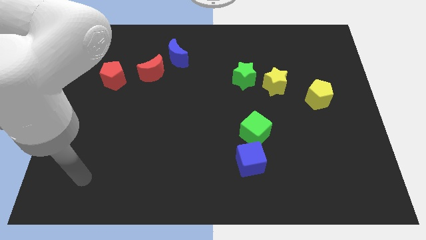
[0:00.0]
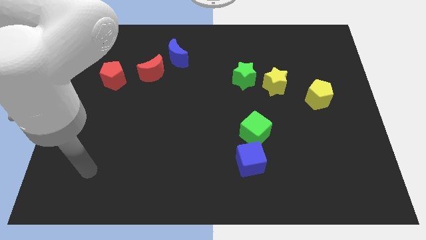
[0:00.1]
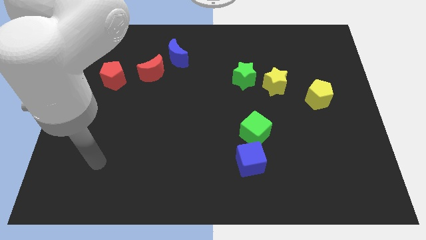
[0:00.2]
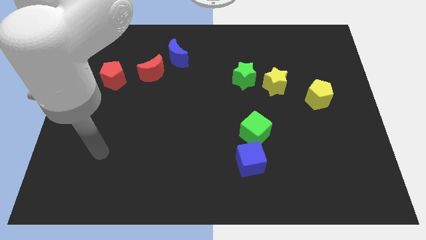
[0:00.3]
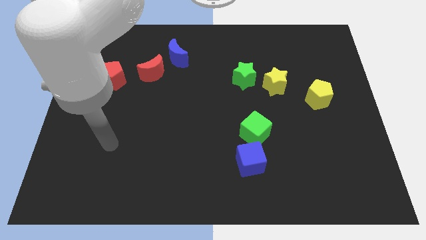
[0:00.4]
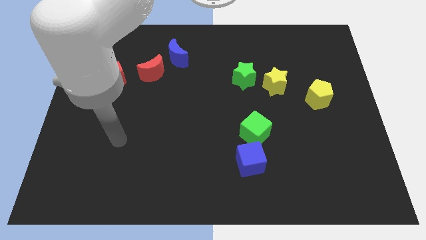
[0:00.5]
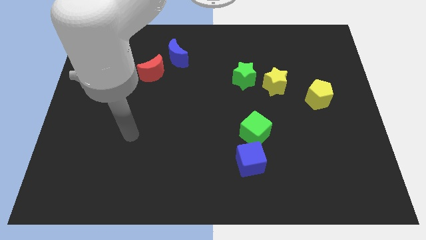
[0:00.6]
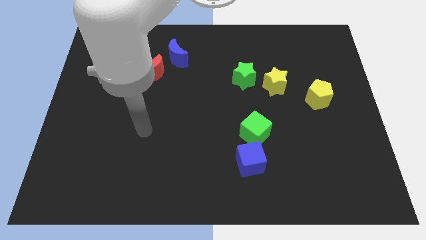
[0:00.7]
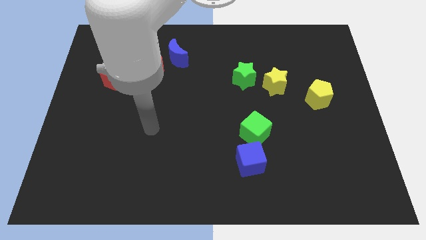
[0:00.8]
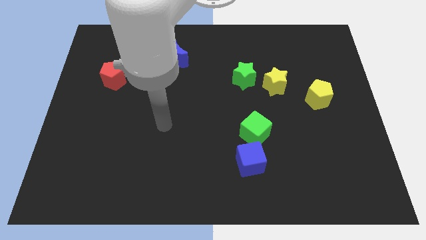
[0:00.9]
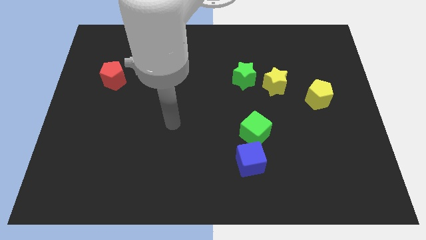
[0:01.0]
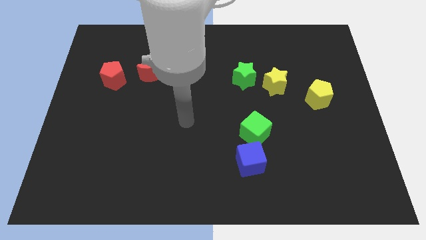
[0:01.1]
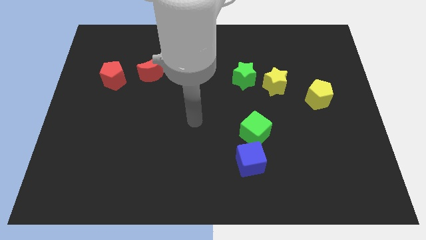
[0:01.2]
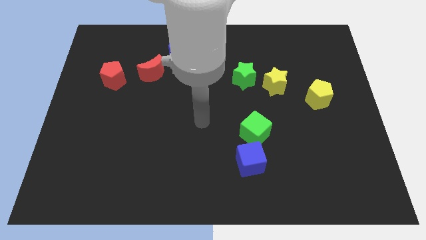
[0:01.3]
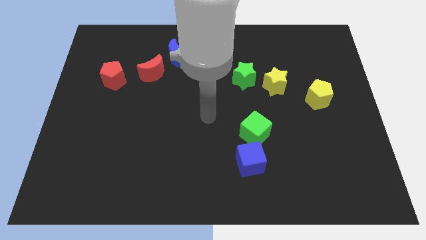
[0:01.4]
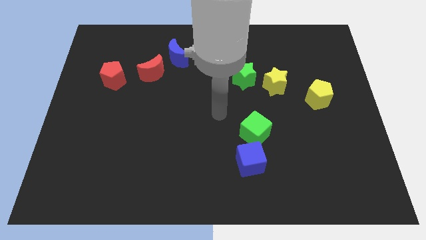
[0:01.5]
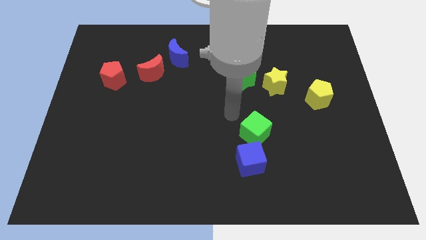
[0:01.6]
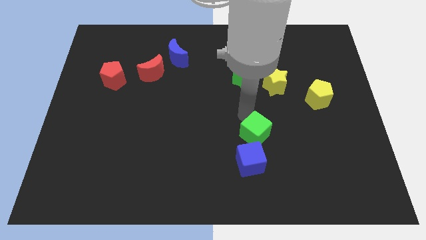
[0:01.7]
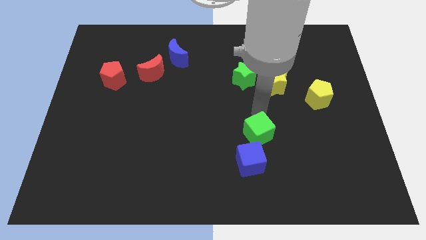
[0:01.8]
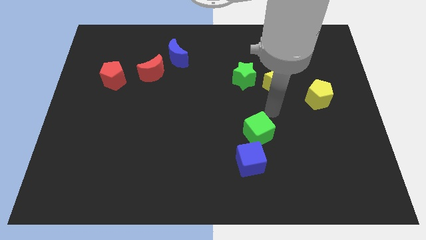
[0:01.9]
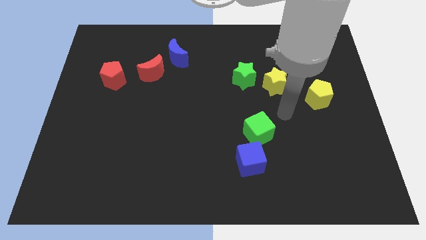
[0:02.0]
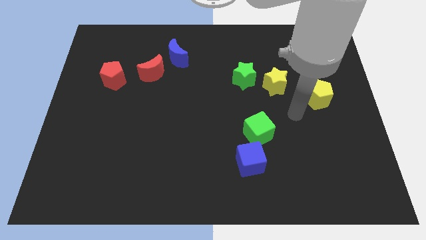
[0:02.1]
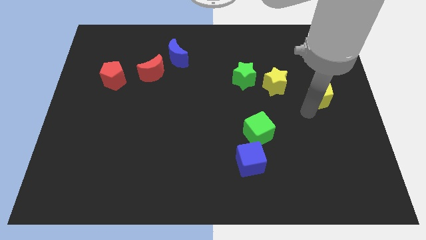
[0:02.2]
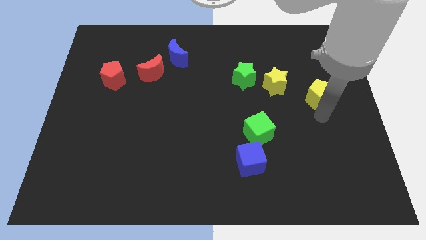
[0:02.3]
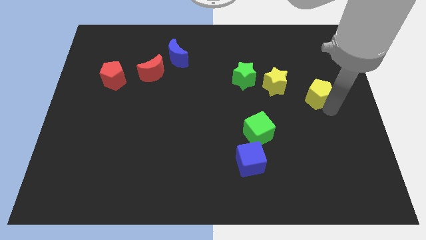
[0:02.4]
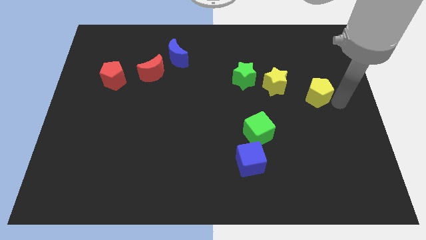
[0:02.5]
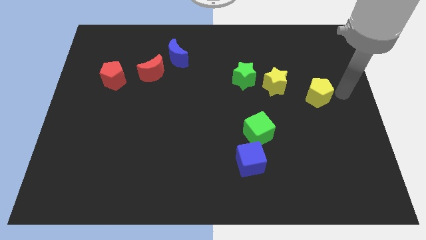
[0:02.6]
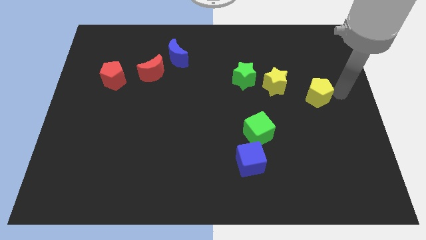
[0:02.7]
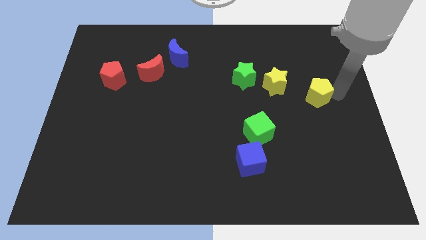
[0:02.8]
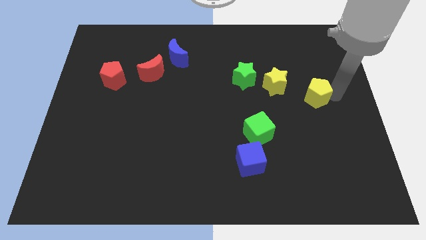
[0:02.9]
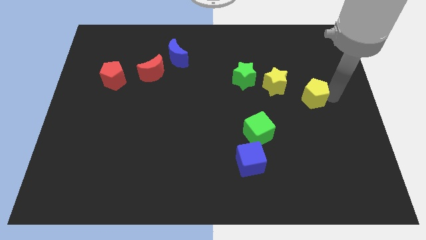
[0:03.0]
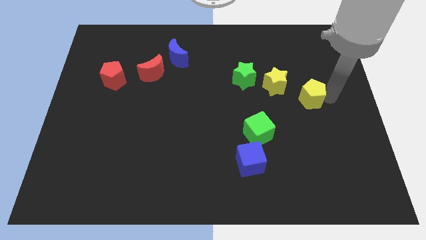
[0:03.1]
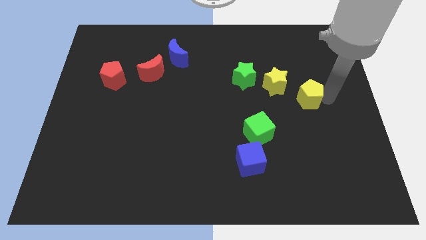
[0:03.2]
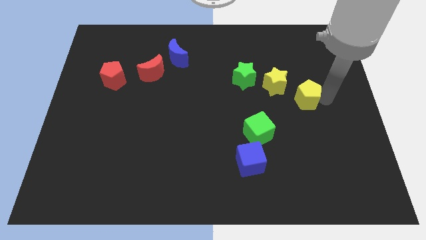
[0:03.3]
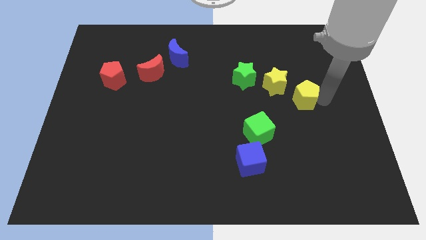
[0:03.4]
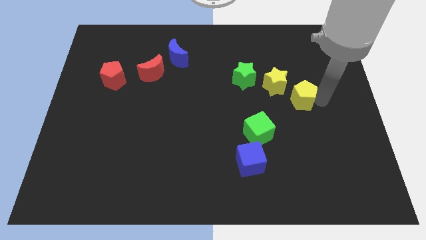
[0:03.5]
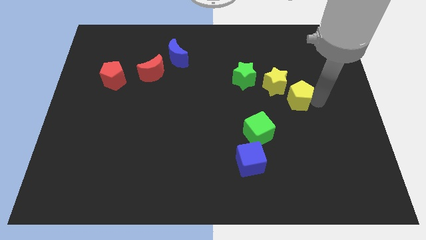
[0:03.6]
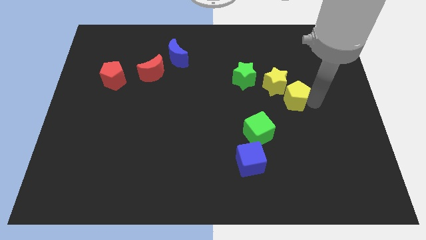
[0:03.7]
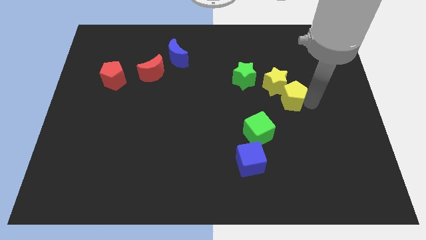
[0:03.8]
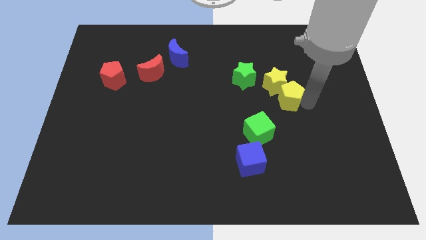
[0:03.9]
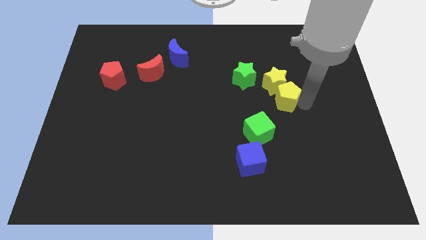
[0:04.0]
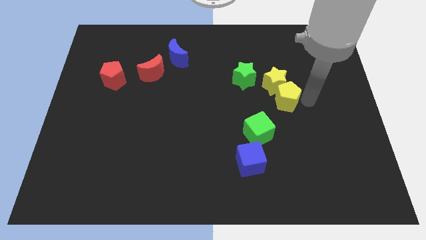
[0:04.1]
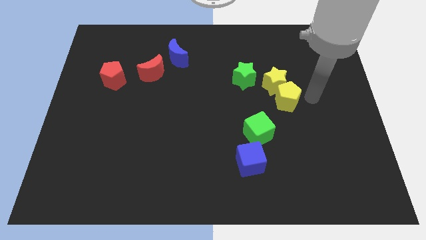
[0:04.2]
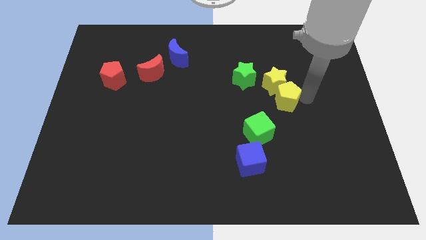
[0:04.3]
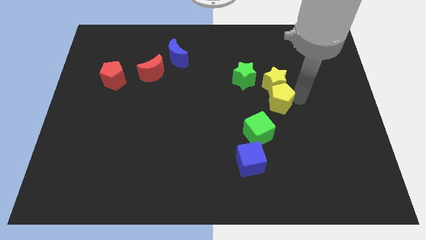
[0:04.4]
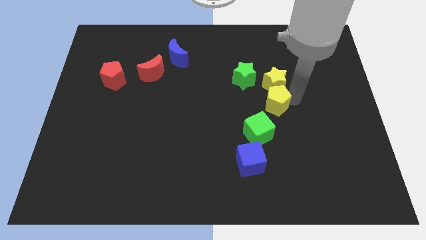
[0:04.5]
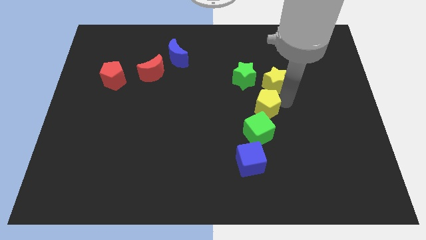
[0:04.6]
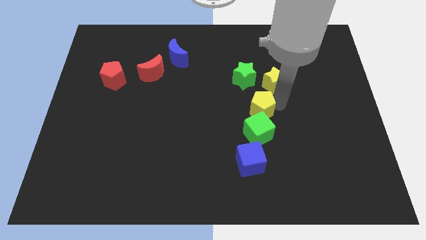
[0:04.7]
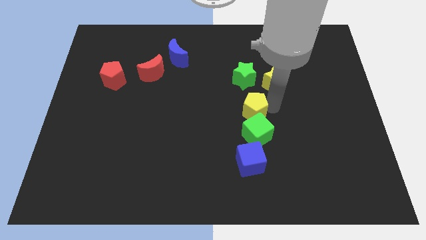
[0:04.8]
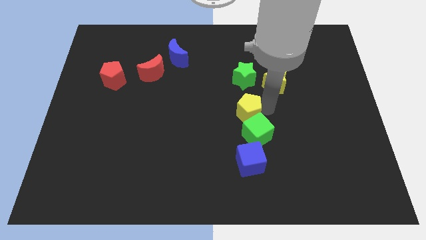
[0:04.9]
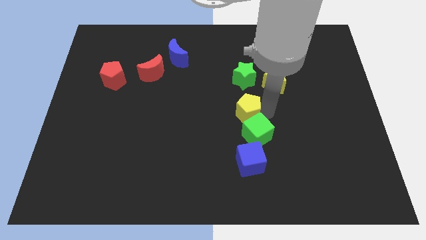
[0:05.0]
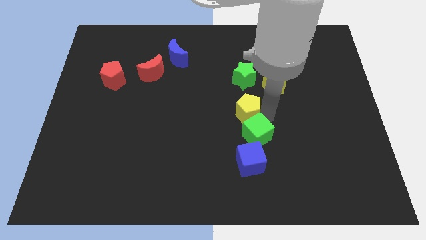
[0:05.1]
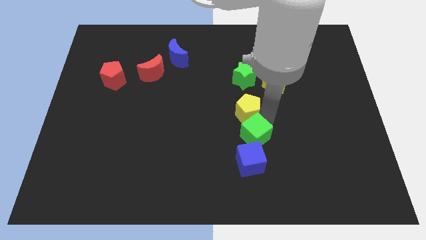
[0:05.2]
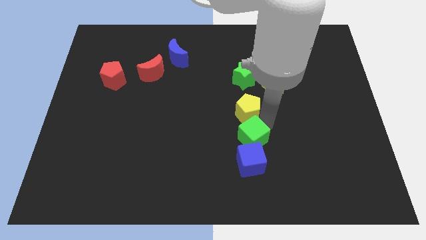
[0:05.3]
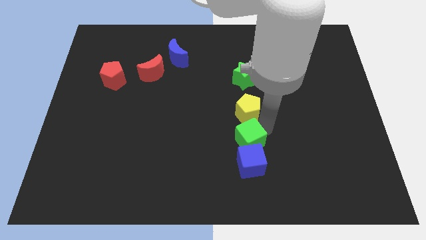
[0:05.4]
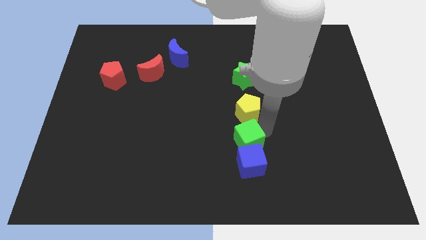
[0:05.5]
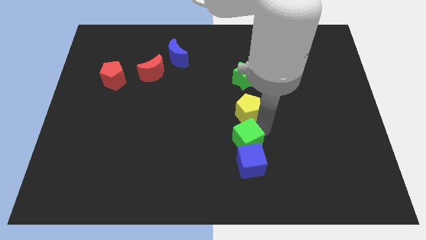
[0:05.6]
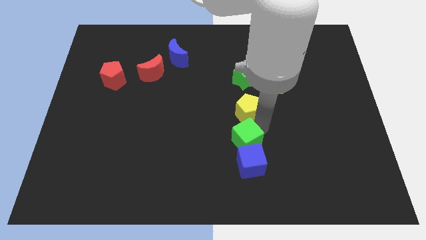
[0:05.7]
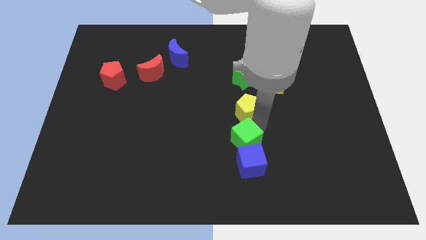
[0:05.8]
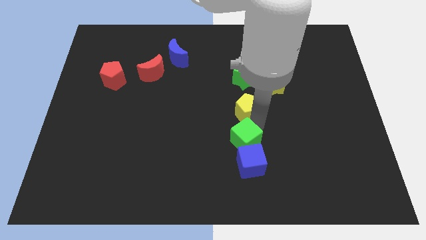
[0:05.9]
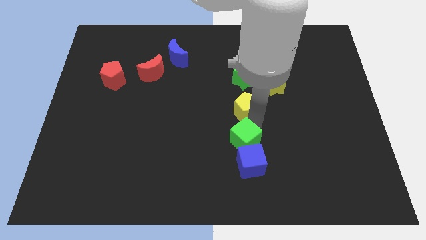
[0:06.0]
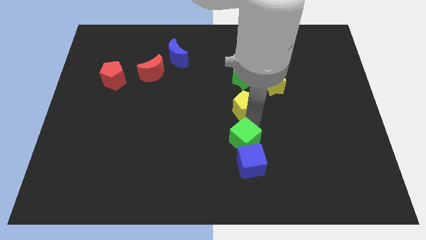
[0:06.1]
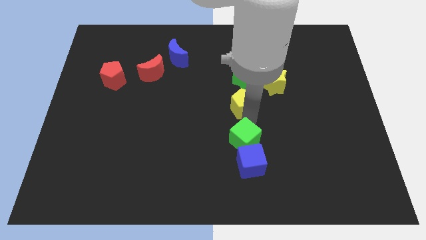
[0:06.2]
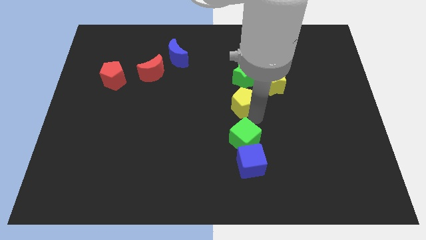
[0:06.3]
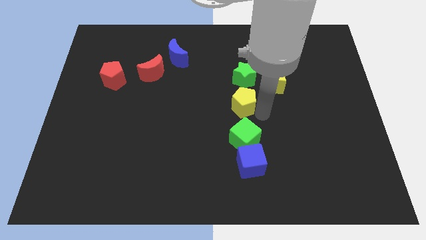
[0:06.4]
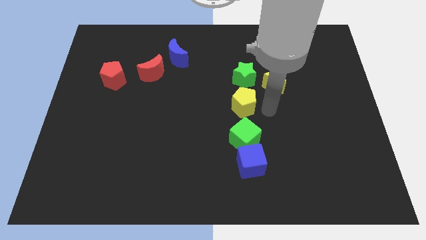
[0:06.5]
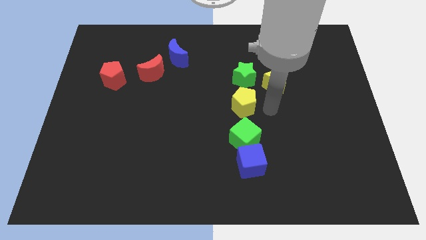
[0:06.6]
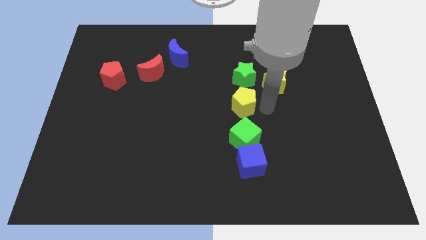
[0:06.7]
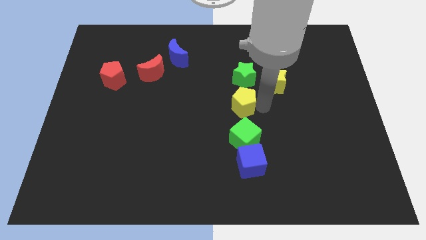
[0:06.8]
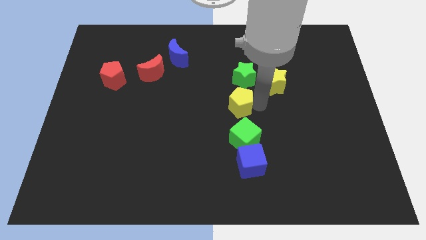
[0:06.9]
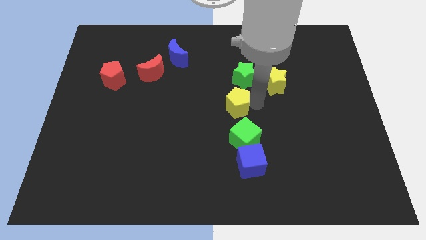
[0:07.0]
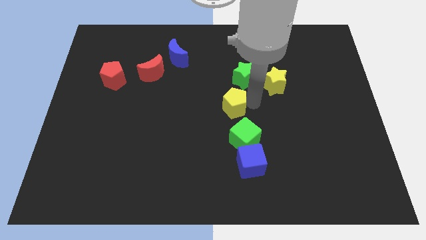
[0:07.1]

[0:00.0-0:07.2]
move the yellow pentagon left

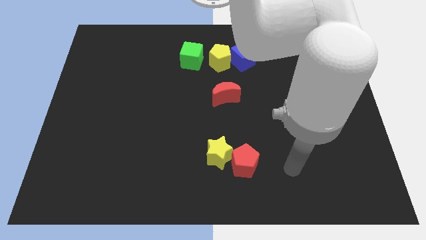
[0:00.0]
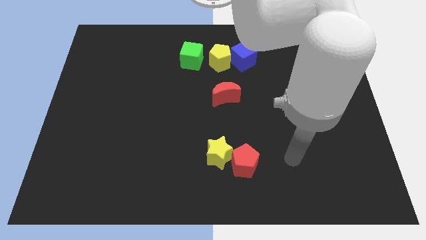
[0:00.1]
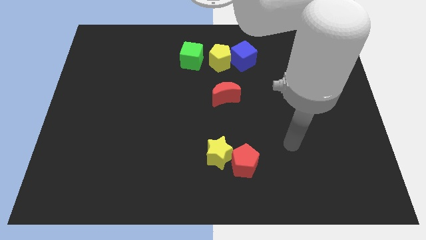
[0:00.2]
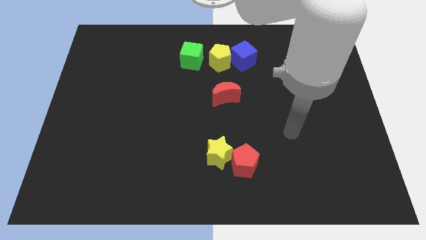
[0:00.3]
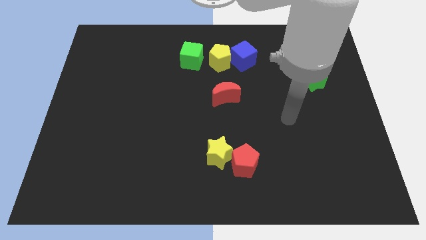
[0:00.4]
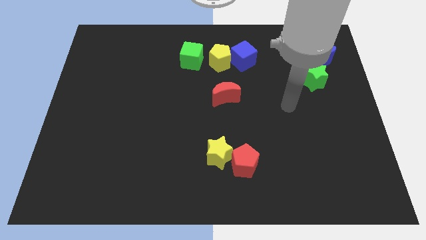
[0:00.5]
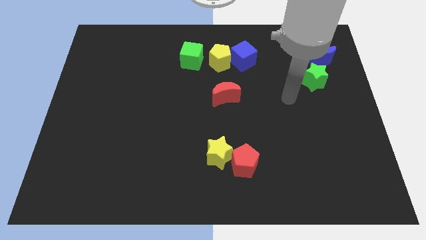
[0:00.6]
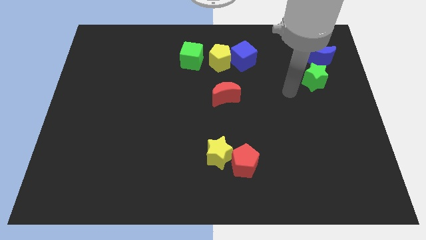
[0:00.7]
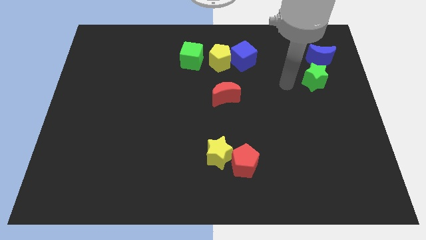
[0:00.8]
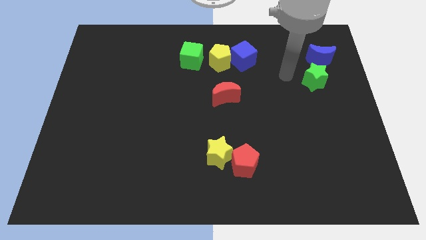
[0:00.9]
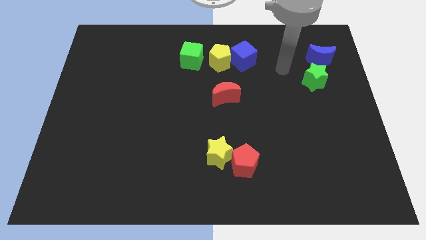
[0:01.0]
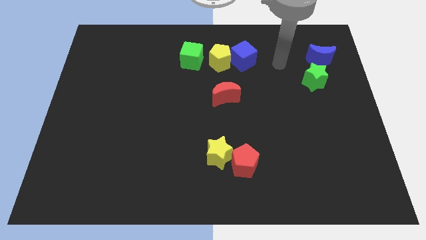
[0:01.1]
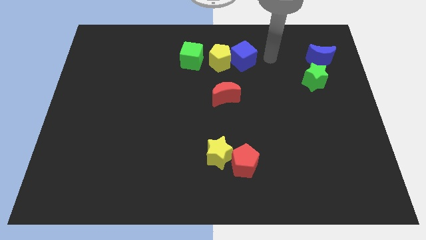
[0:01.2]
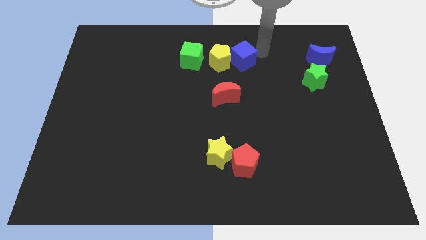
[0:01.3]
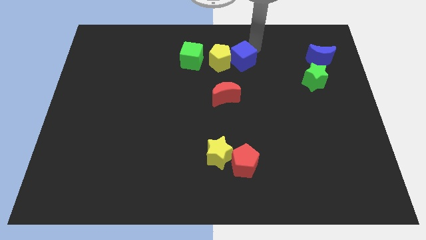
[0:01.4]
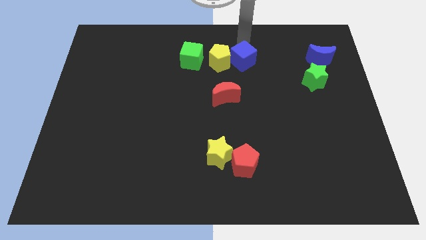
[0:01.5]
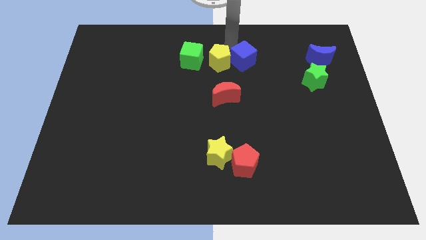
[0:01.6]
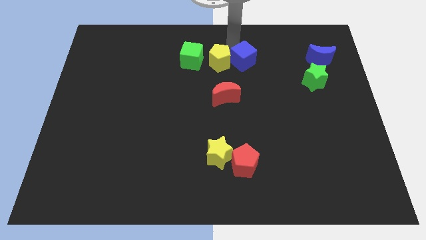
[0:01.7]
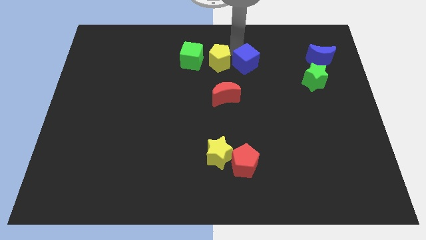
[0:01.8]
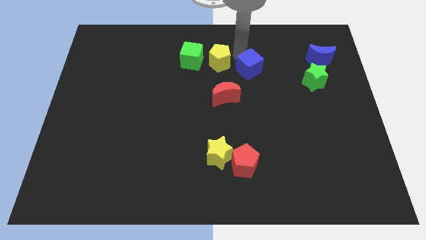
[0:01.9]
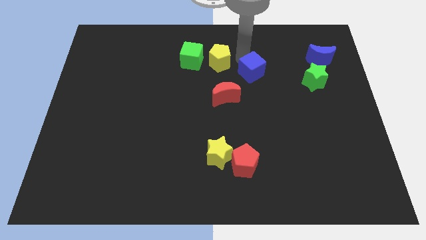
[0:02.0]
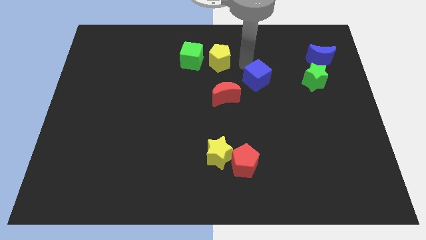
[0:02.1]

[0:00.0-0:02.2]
push the blue cube downwards and then right somewhat
